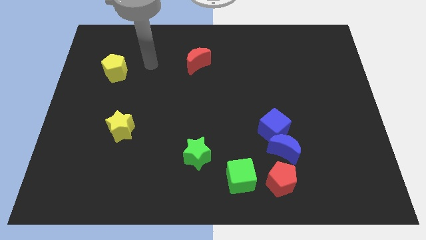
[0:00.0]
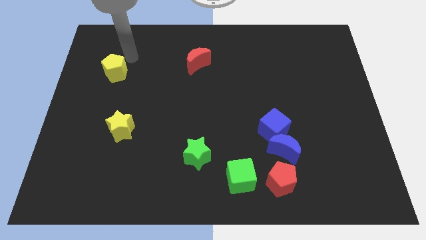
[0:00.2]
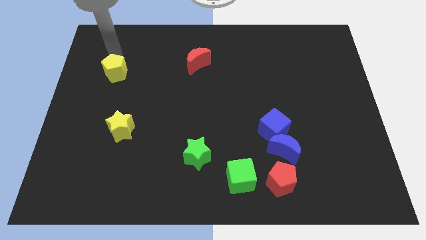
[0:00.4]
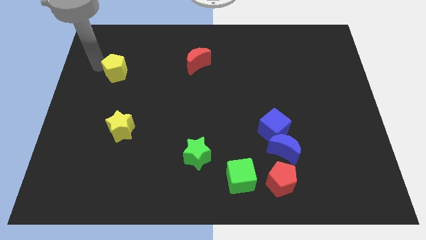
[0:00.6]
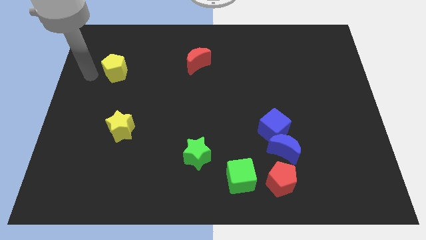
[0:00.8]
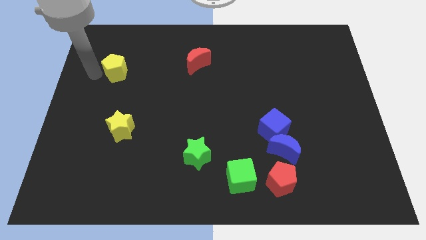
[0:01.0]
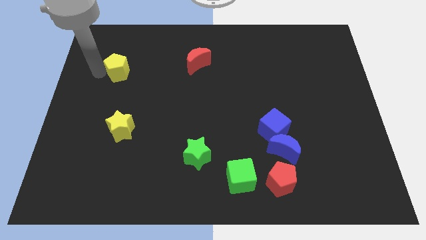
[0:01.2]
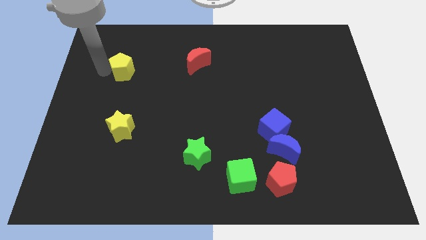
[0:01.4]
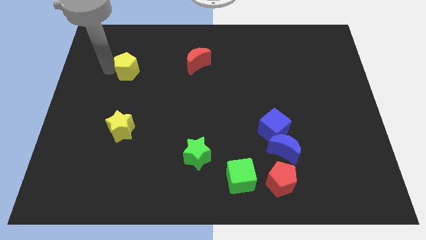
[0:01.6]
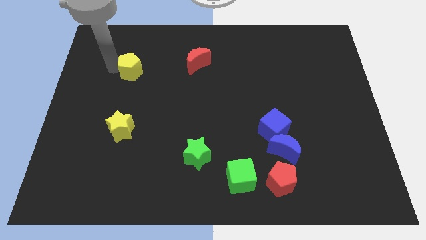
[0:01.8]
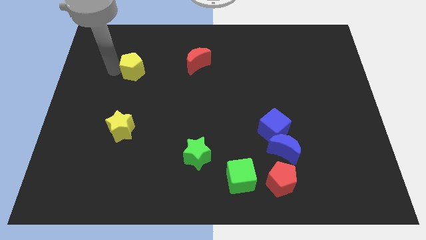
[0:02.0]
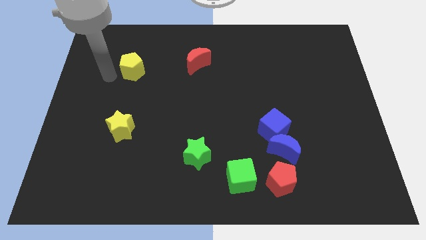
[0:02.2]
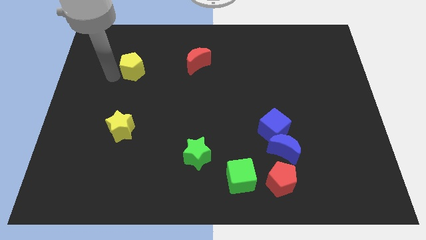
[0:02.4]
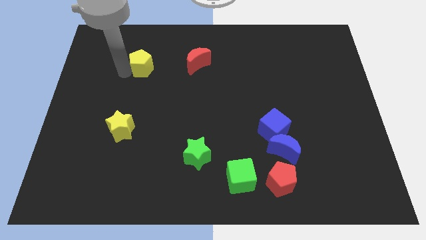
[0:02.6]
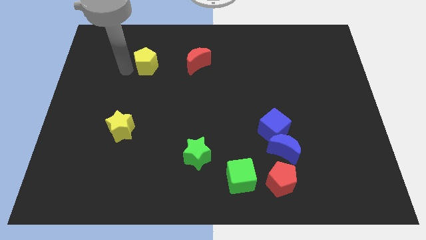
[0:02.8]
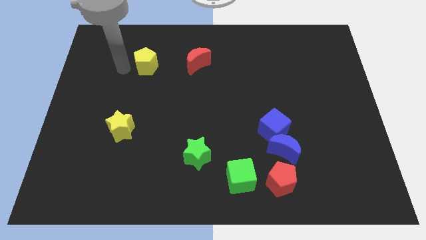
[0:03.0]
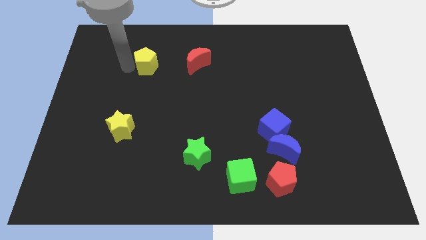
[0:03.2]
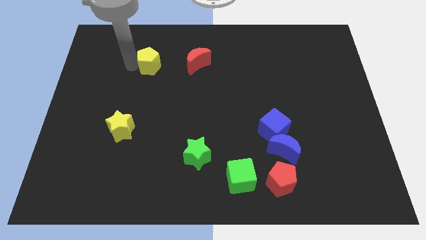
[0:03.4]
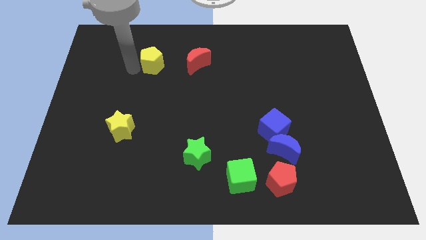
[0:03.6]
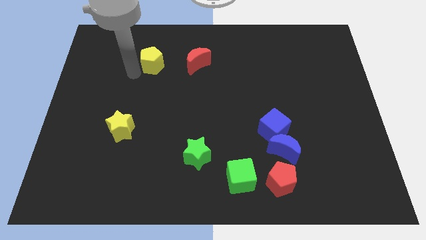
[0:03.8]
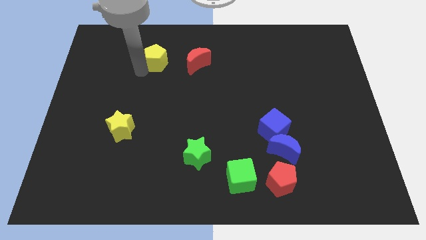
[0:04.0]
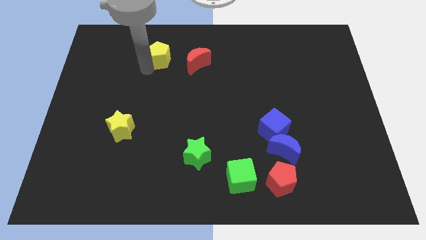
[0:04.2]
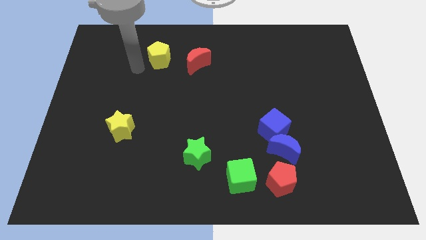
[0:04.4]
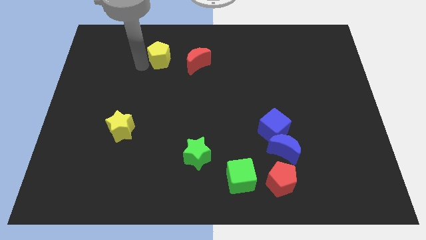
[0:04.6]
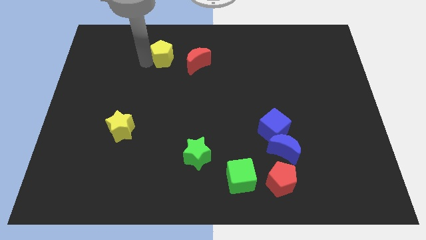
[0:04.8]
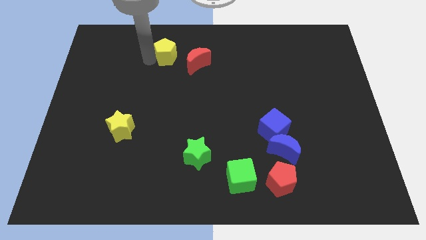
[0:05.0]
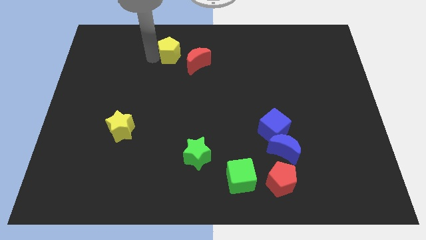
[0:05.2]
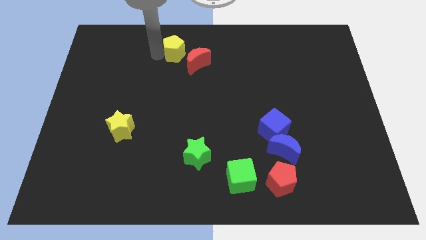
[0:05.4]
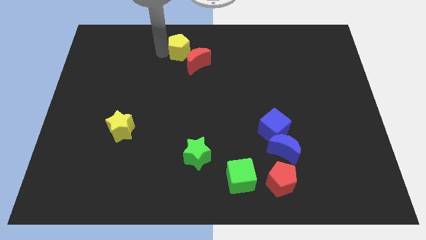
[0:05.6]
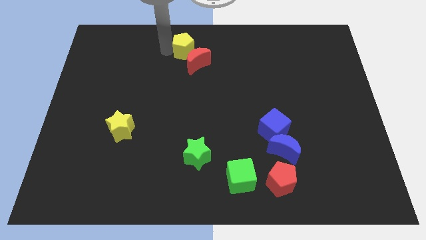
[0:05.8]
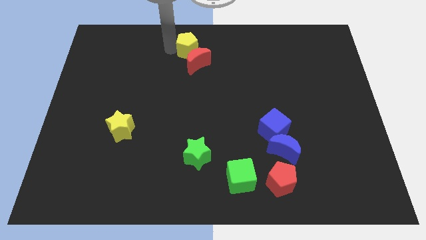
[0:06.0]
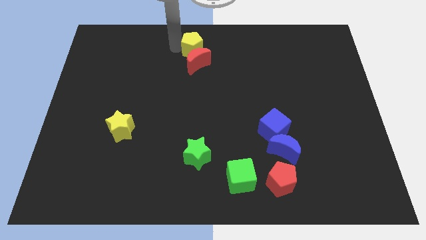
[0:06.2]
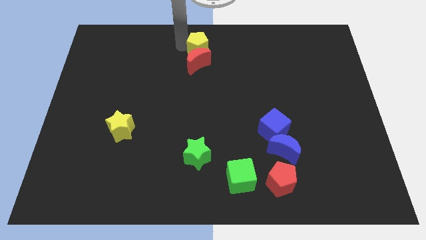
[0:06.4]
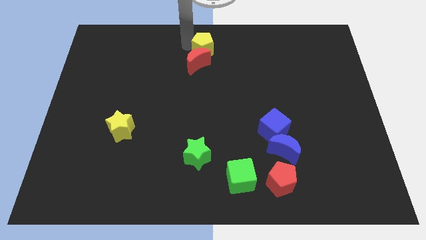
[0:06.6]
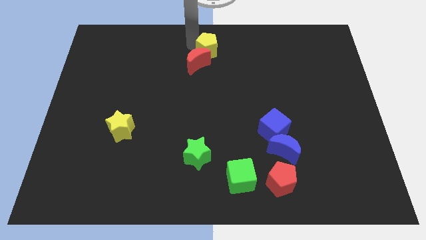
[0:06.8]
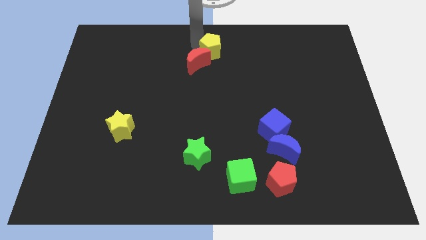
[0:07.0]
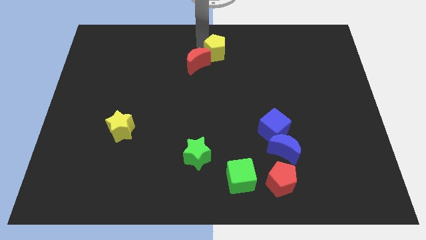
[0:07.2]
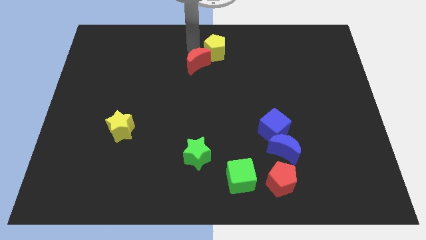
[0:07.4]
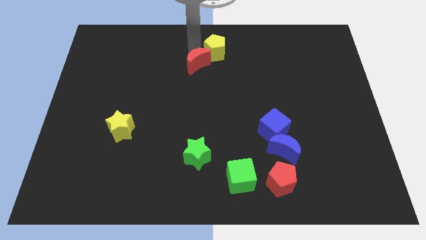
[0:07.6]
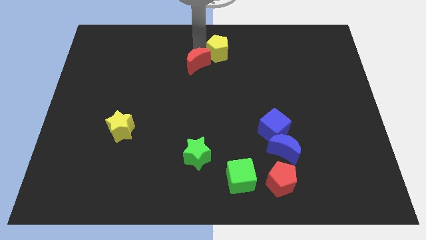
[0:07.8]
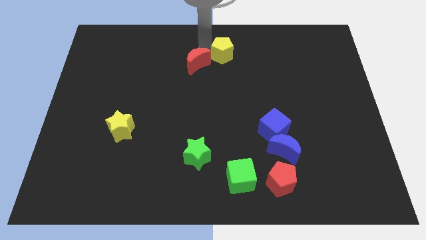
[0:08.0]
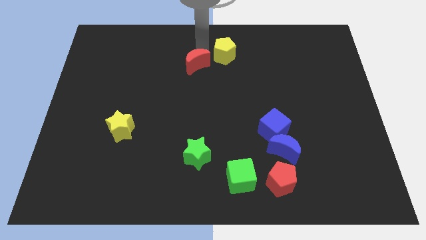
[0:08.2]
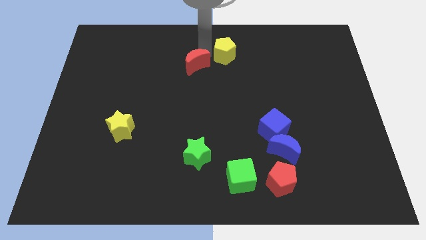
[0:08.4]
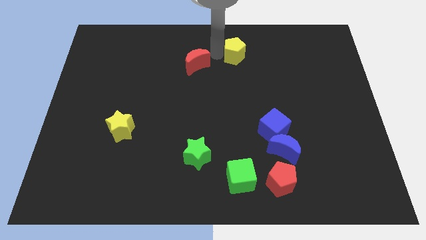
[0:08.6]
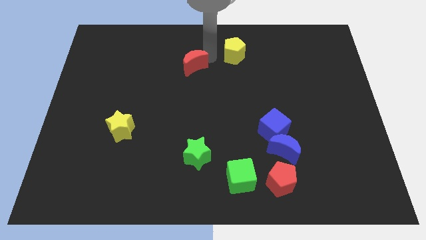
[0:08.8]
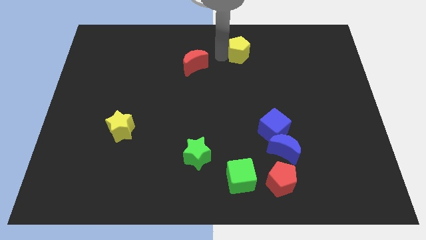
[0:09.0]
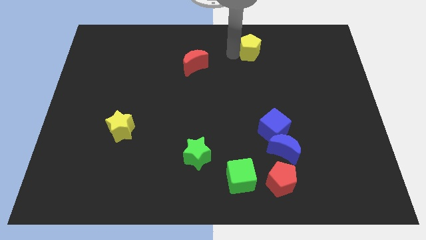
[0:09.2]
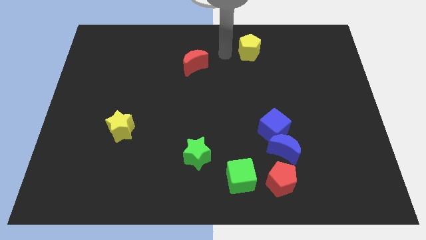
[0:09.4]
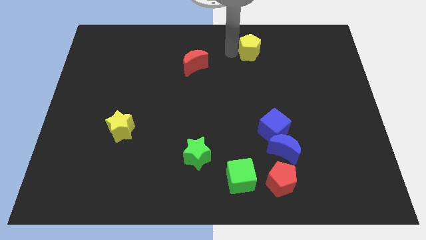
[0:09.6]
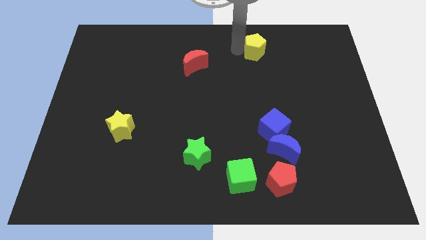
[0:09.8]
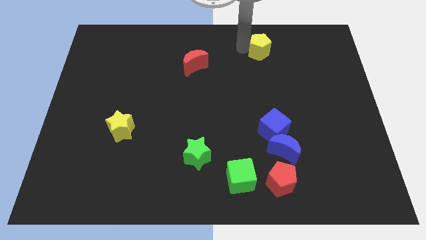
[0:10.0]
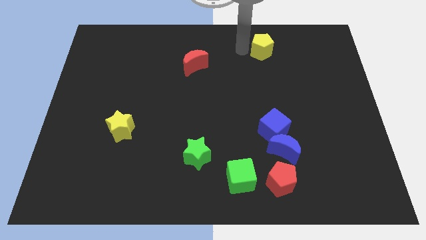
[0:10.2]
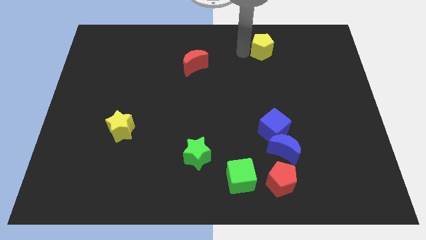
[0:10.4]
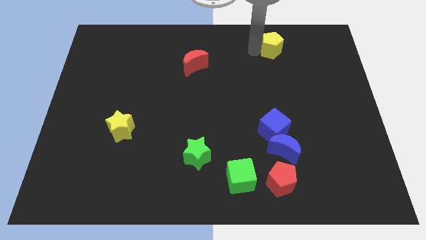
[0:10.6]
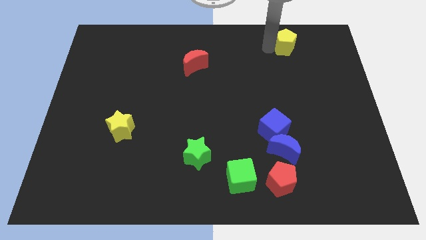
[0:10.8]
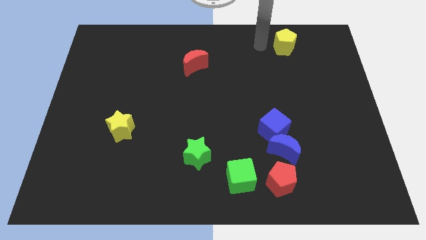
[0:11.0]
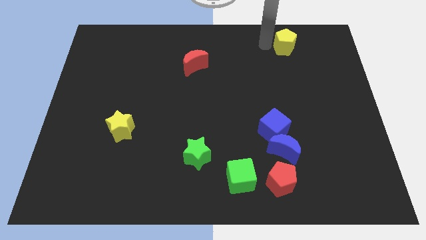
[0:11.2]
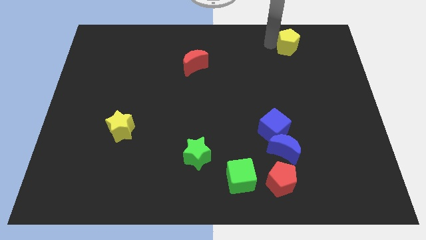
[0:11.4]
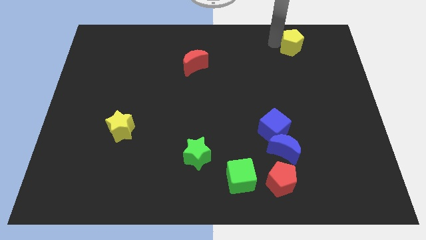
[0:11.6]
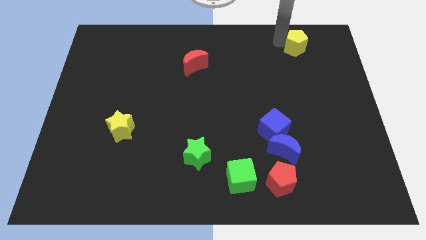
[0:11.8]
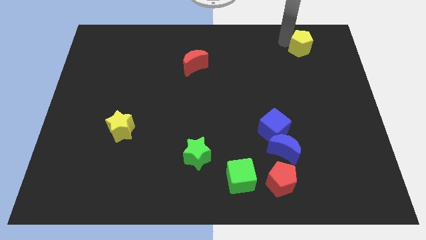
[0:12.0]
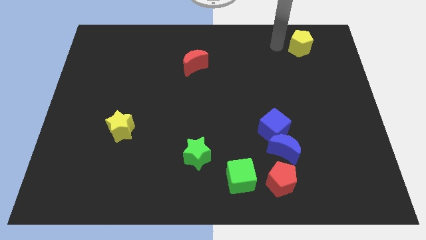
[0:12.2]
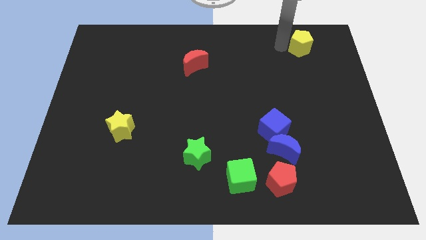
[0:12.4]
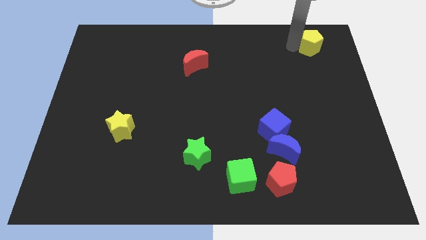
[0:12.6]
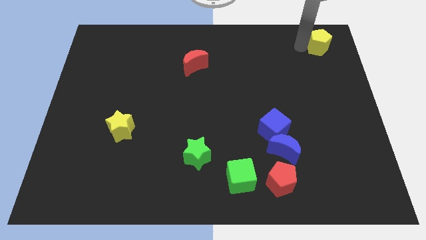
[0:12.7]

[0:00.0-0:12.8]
move the yellow pentagon to the top right of the board
